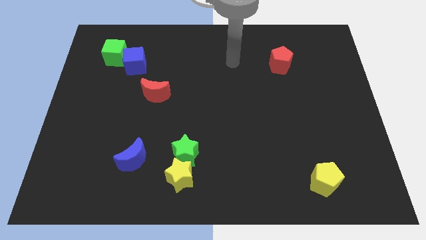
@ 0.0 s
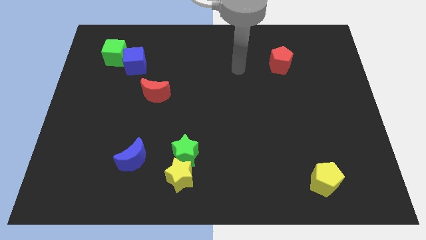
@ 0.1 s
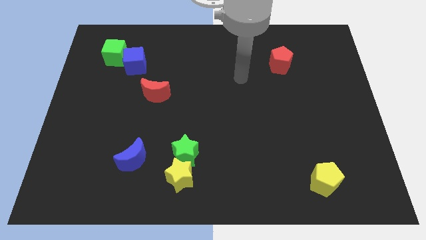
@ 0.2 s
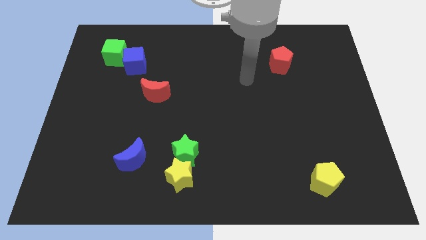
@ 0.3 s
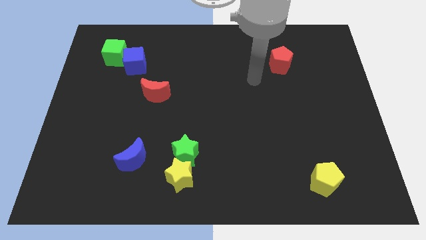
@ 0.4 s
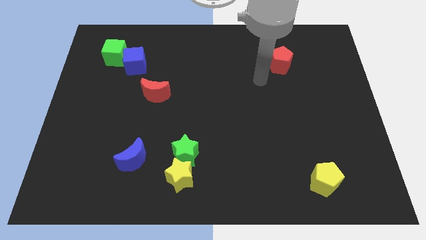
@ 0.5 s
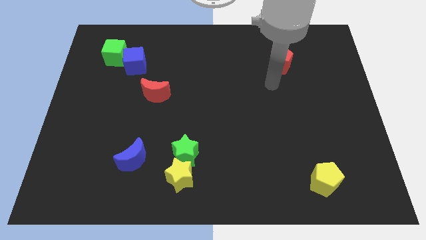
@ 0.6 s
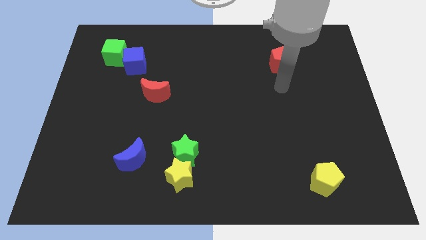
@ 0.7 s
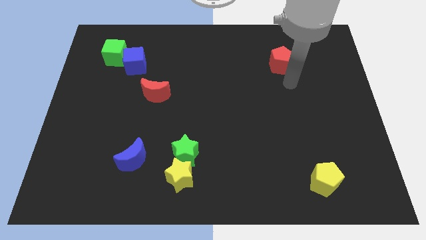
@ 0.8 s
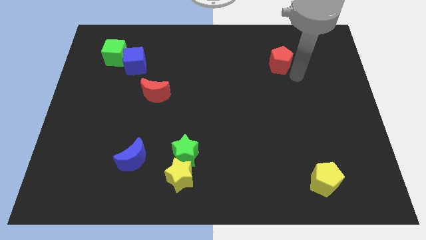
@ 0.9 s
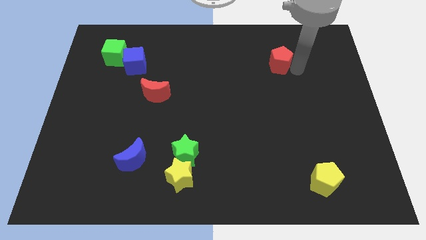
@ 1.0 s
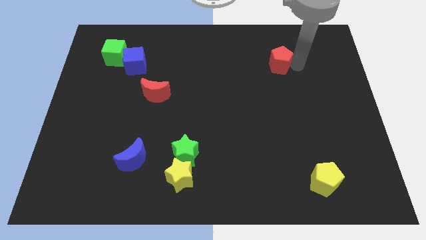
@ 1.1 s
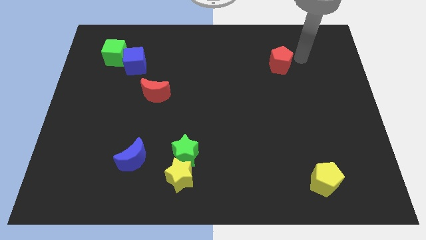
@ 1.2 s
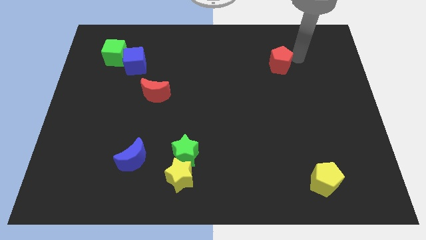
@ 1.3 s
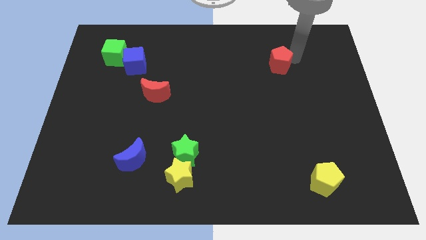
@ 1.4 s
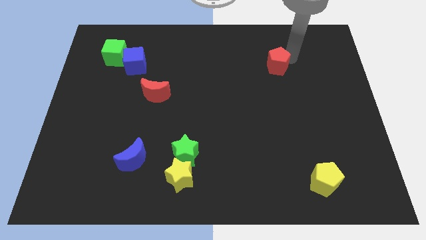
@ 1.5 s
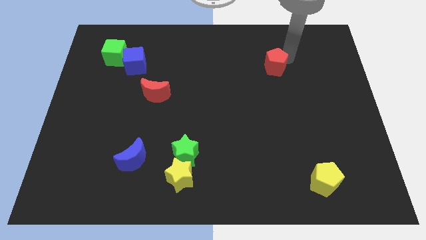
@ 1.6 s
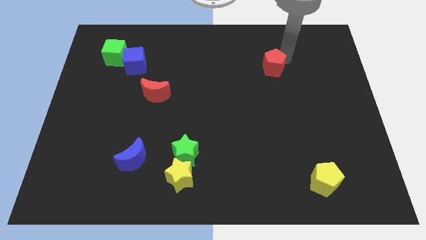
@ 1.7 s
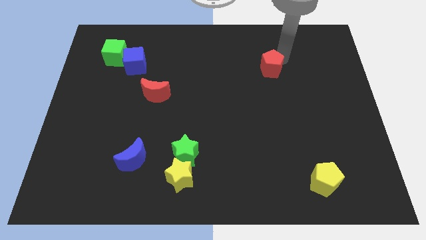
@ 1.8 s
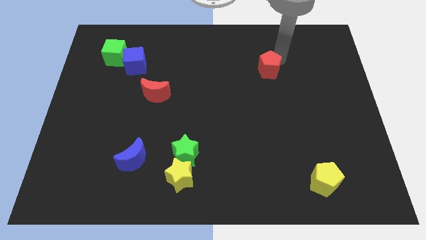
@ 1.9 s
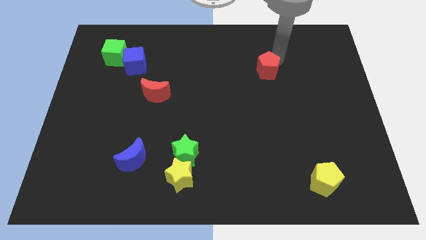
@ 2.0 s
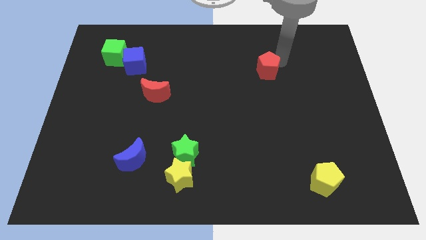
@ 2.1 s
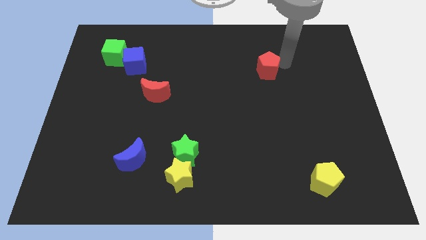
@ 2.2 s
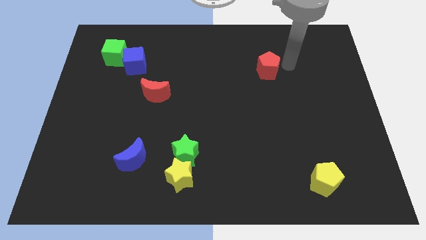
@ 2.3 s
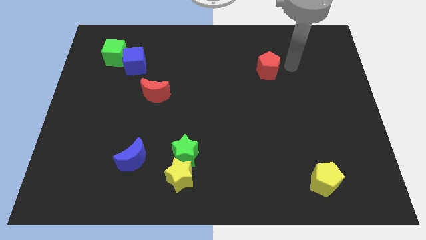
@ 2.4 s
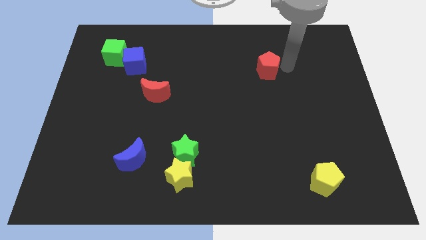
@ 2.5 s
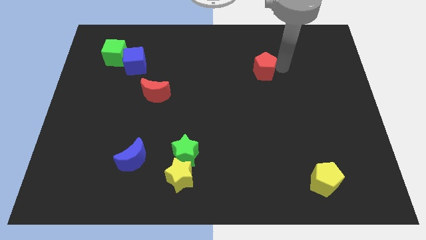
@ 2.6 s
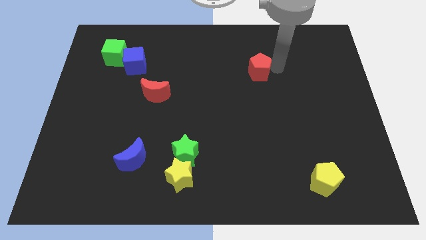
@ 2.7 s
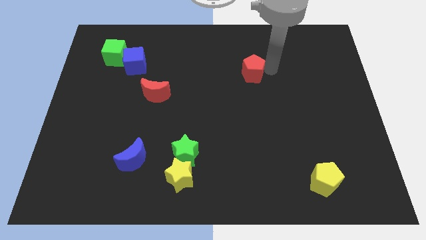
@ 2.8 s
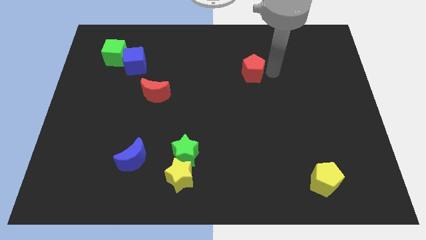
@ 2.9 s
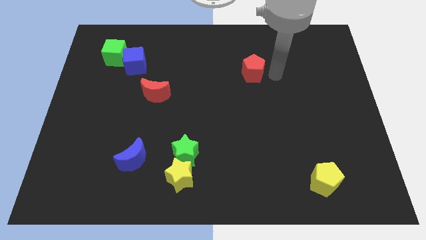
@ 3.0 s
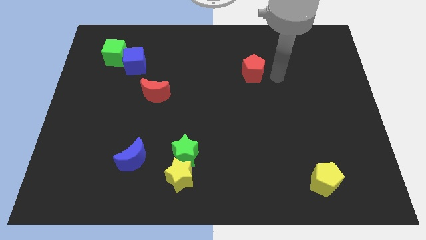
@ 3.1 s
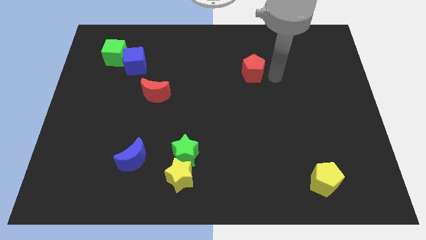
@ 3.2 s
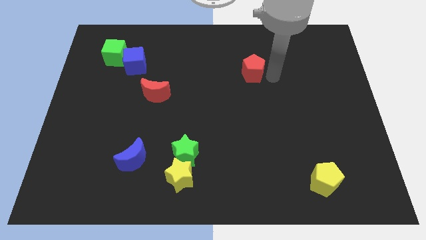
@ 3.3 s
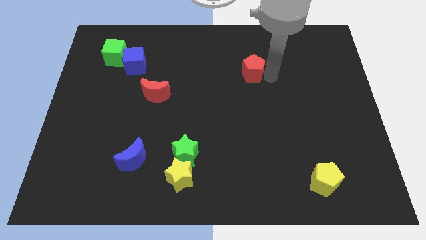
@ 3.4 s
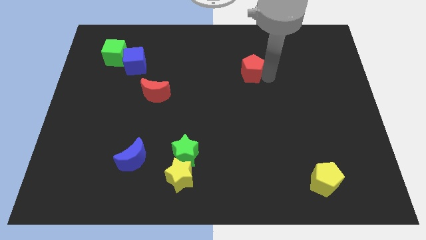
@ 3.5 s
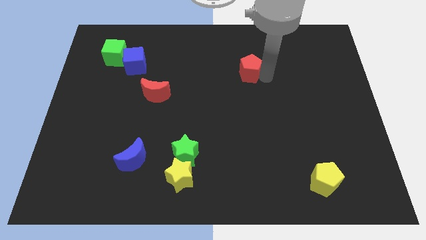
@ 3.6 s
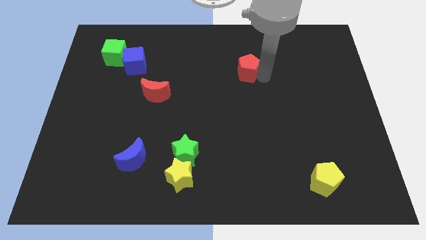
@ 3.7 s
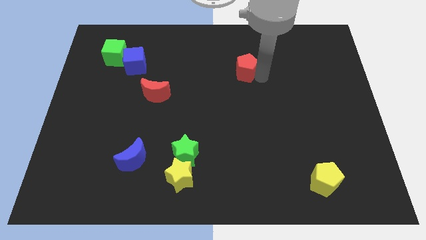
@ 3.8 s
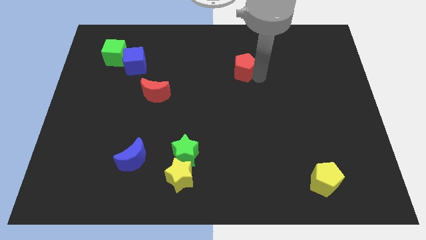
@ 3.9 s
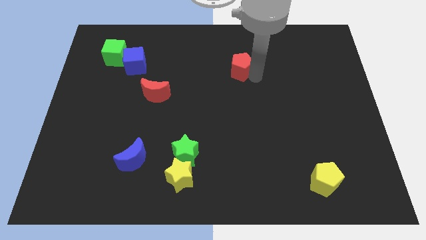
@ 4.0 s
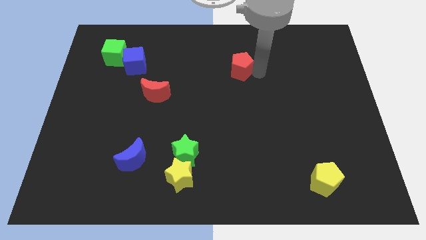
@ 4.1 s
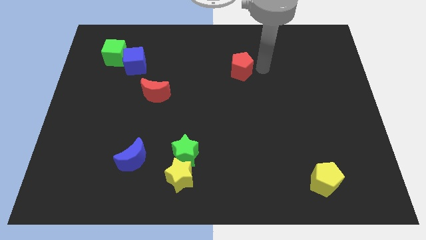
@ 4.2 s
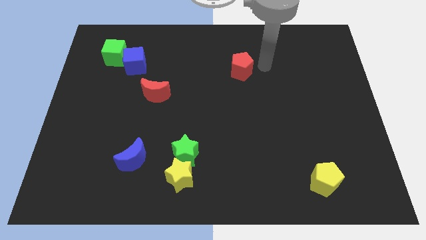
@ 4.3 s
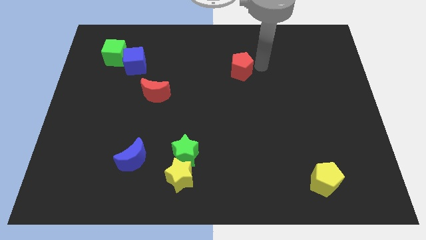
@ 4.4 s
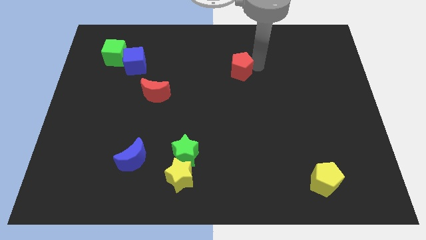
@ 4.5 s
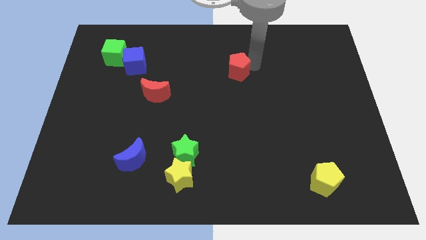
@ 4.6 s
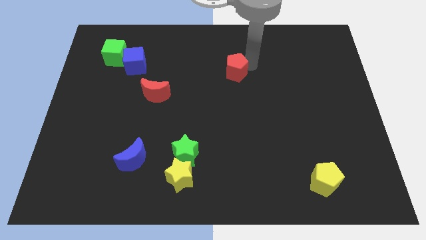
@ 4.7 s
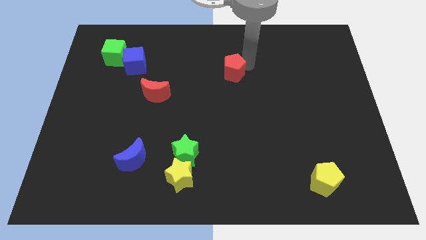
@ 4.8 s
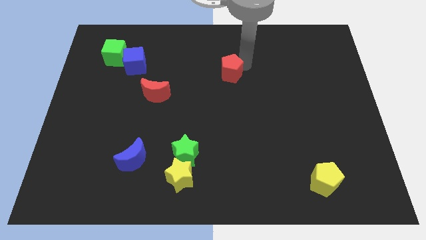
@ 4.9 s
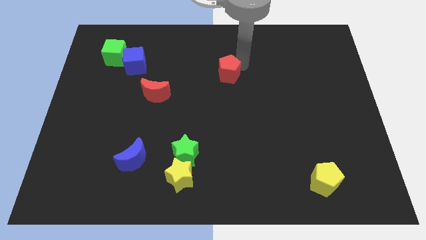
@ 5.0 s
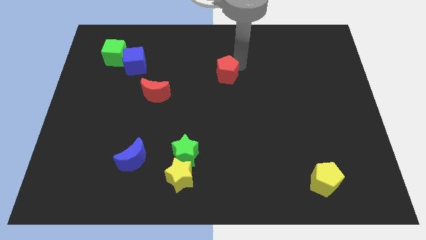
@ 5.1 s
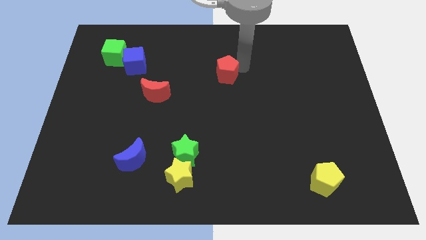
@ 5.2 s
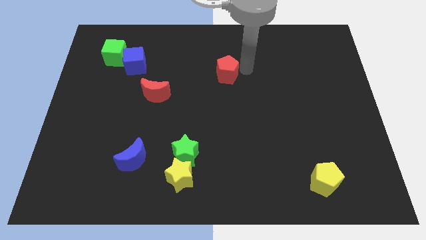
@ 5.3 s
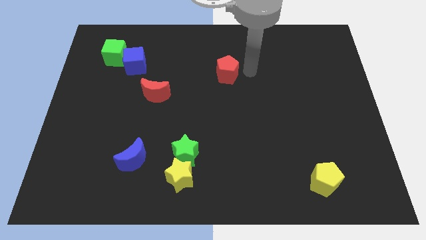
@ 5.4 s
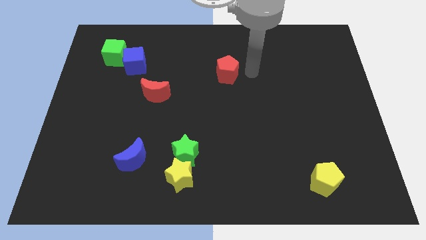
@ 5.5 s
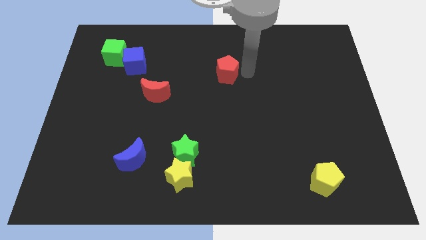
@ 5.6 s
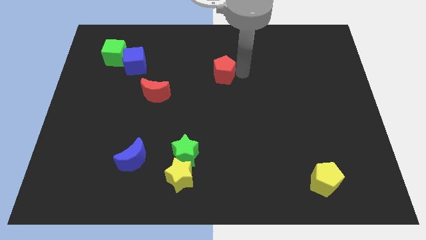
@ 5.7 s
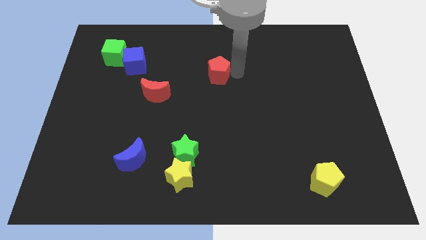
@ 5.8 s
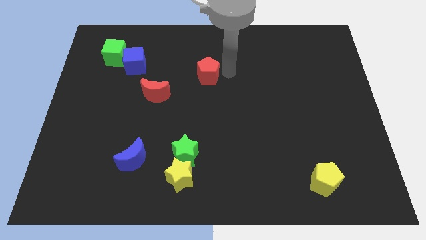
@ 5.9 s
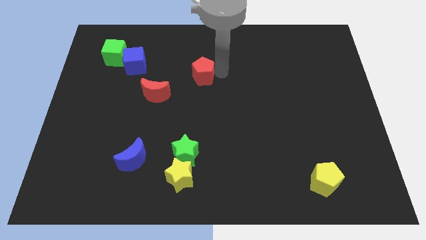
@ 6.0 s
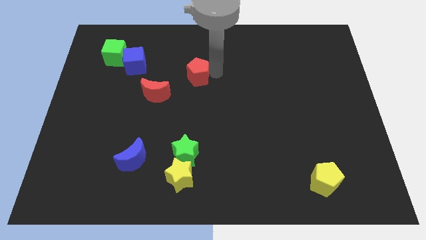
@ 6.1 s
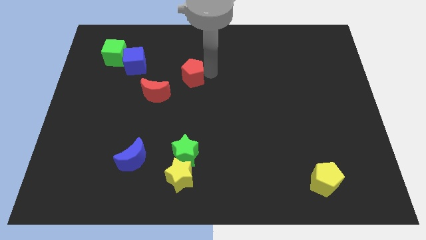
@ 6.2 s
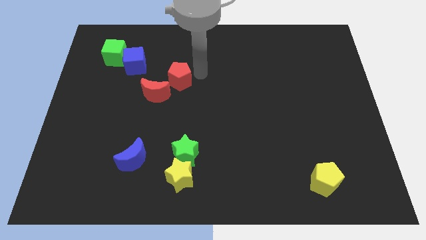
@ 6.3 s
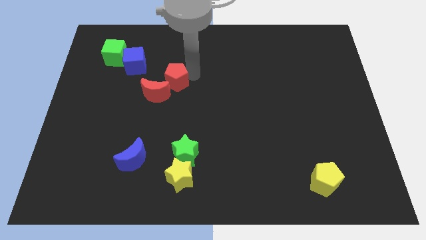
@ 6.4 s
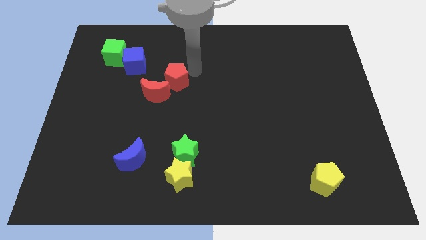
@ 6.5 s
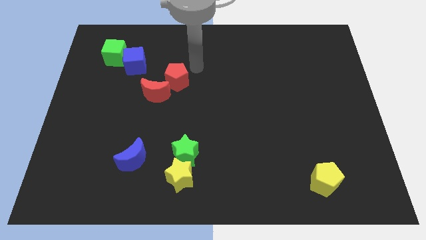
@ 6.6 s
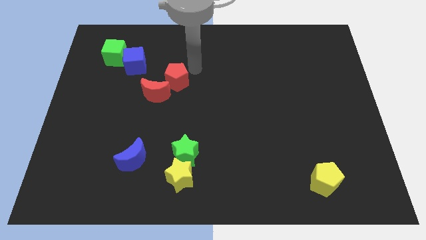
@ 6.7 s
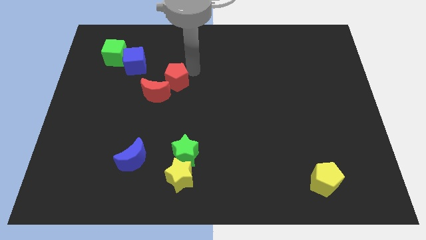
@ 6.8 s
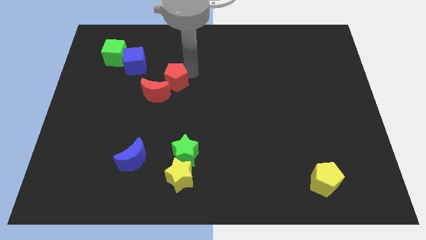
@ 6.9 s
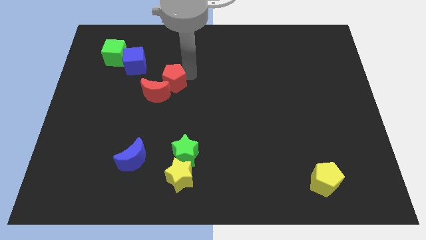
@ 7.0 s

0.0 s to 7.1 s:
slide the red pentagon to the red moon
